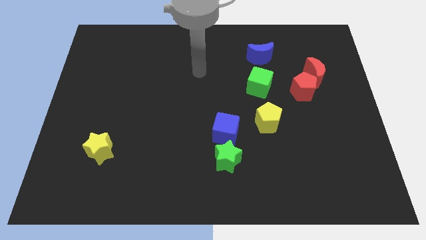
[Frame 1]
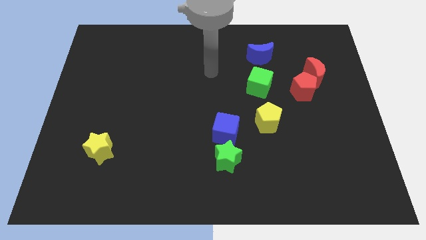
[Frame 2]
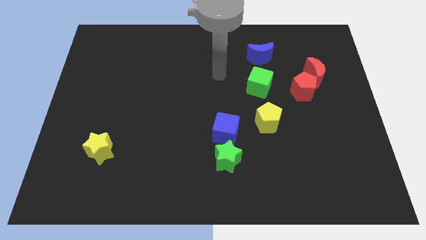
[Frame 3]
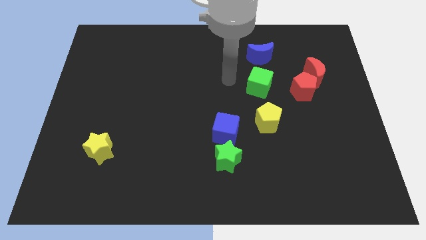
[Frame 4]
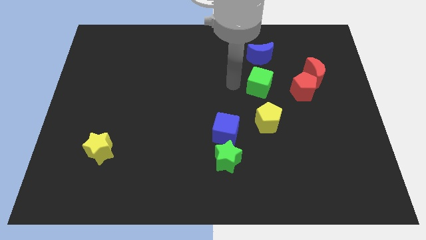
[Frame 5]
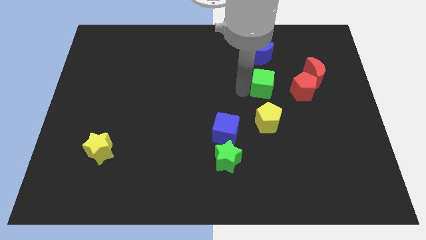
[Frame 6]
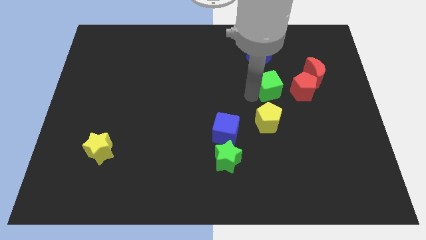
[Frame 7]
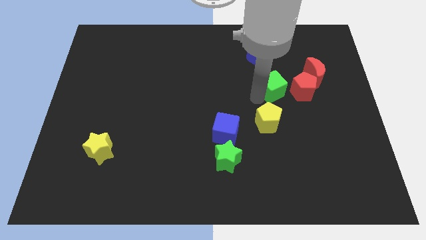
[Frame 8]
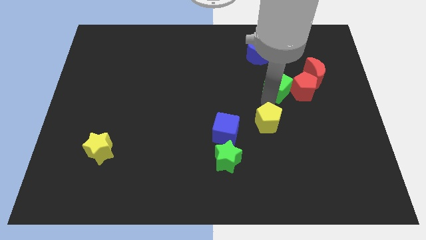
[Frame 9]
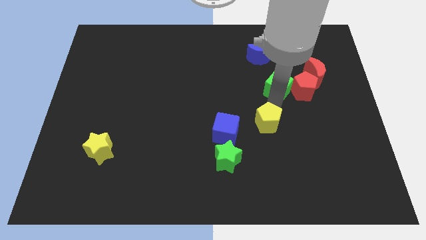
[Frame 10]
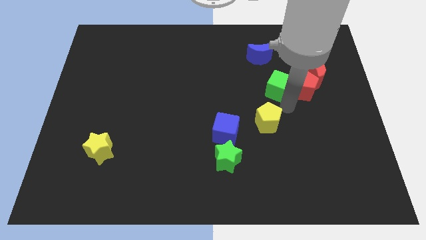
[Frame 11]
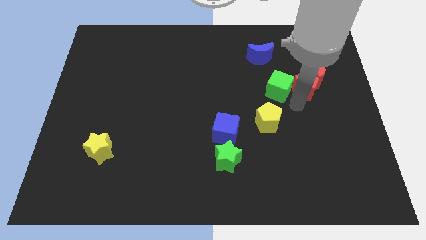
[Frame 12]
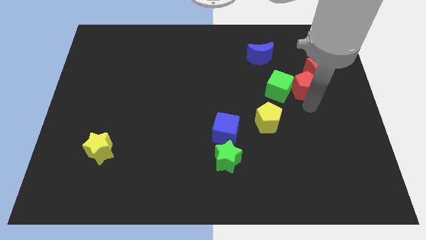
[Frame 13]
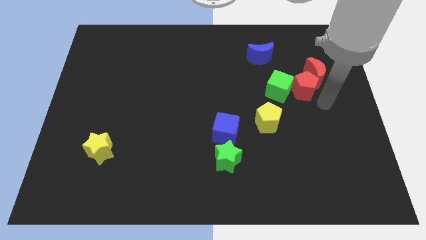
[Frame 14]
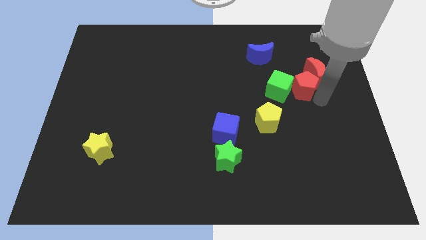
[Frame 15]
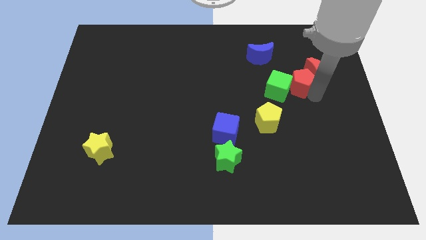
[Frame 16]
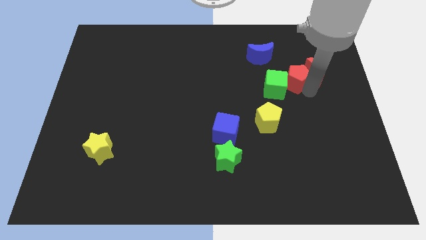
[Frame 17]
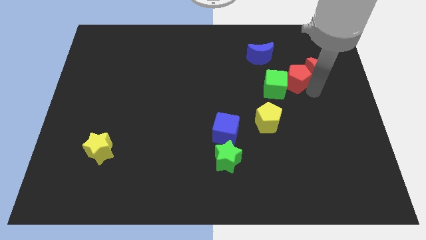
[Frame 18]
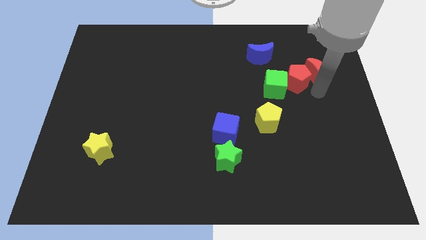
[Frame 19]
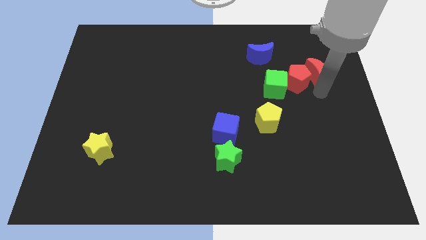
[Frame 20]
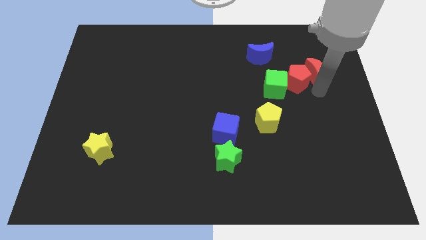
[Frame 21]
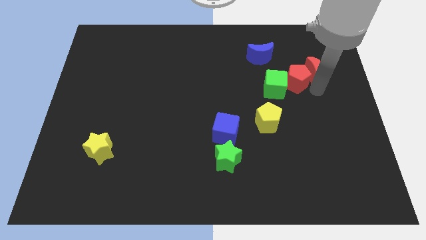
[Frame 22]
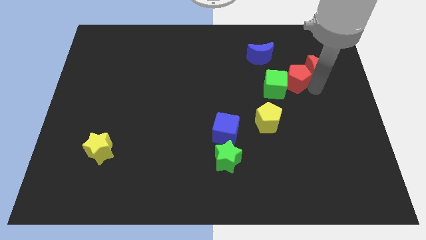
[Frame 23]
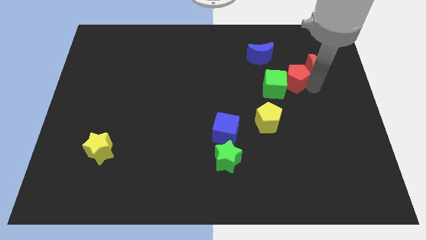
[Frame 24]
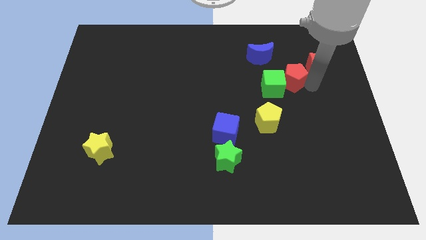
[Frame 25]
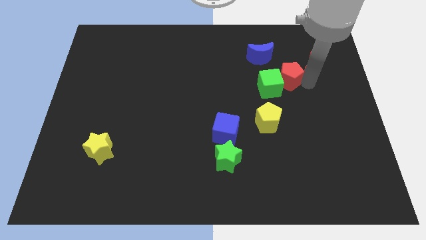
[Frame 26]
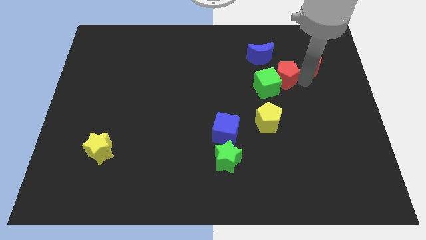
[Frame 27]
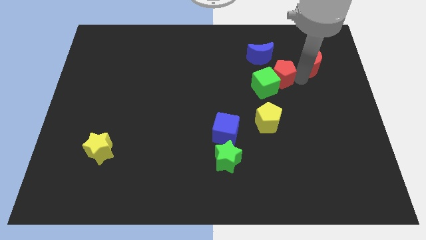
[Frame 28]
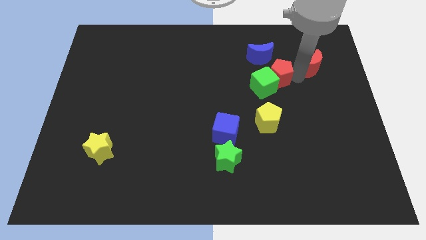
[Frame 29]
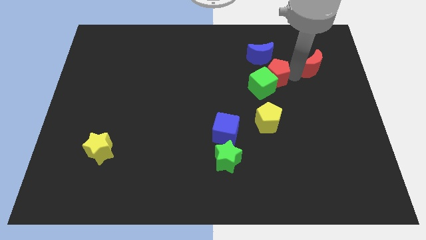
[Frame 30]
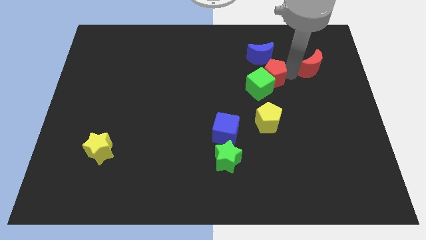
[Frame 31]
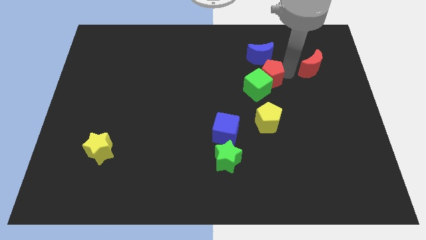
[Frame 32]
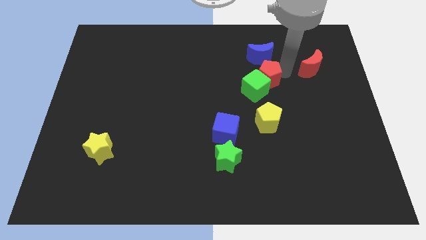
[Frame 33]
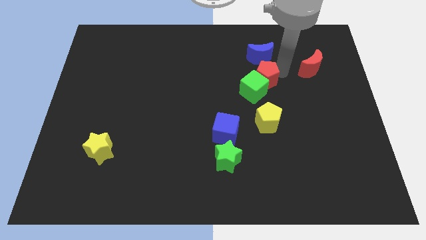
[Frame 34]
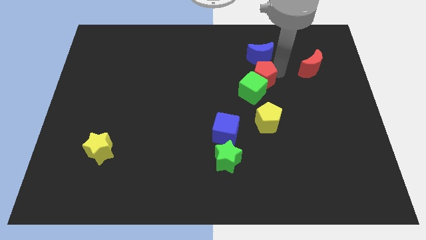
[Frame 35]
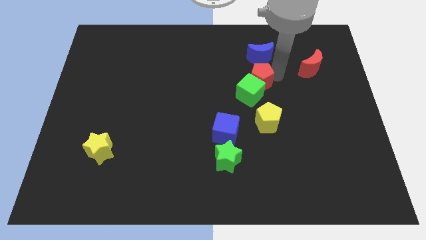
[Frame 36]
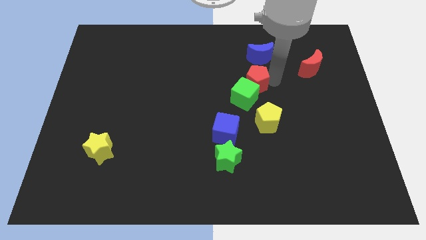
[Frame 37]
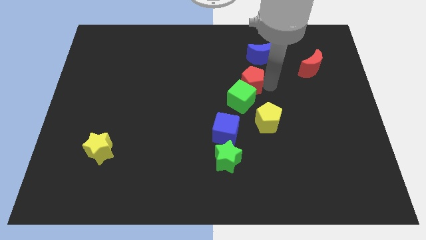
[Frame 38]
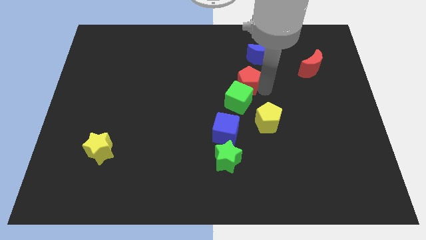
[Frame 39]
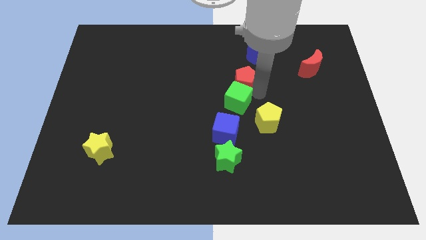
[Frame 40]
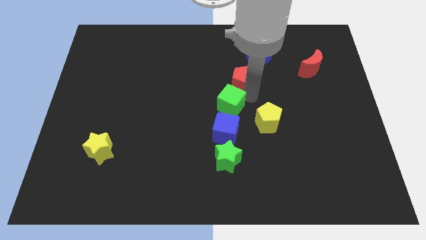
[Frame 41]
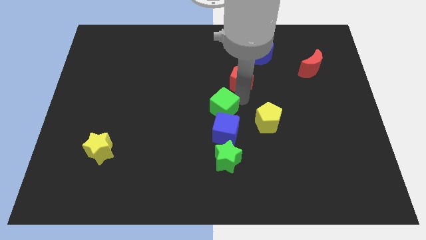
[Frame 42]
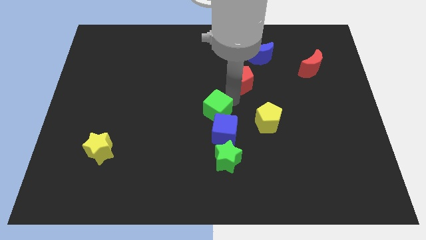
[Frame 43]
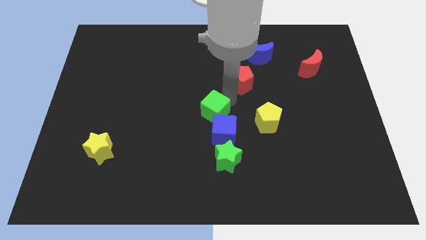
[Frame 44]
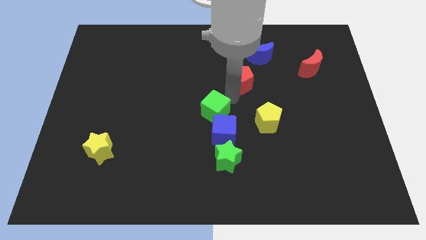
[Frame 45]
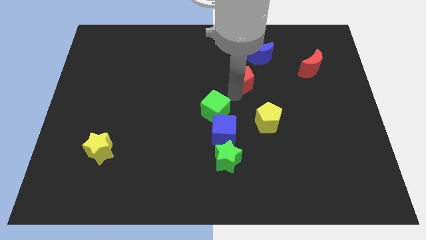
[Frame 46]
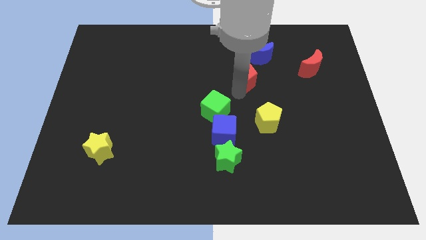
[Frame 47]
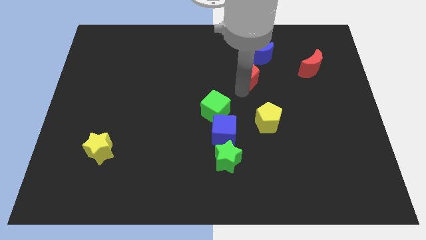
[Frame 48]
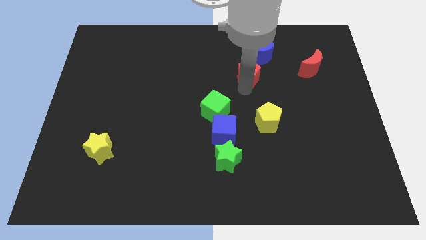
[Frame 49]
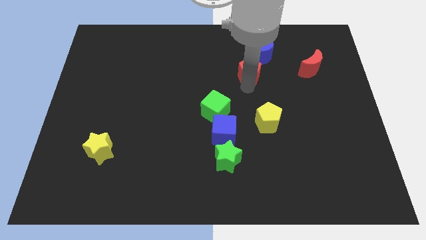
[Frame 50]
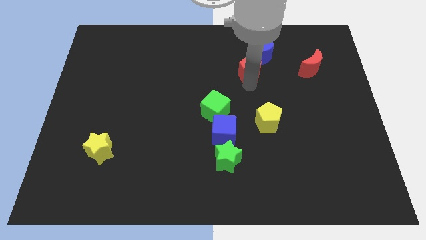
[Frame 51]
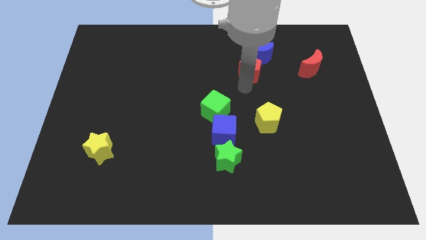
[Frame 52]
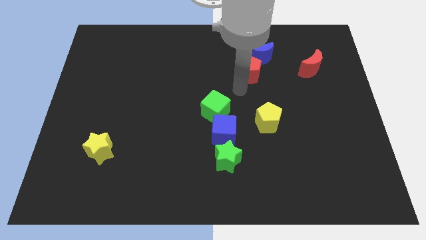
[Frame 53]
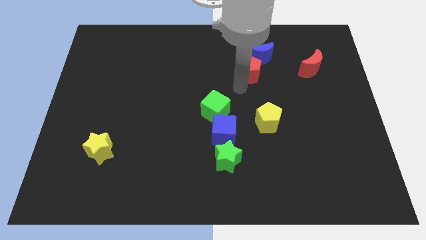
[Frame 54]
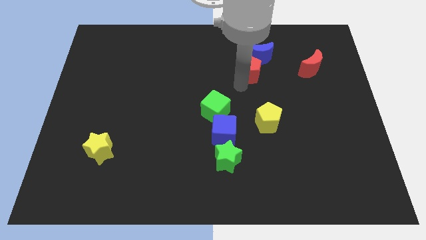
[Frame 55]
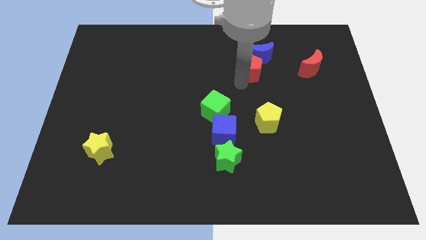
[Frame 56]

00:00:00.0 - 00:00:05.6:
push the red pentagon next to the blue moon

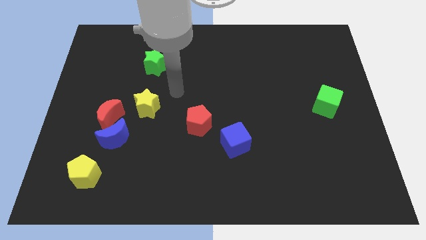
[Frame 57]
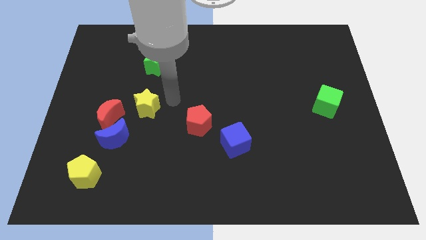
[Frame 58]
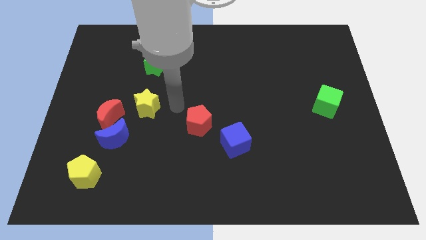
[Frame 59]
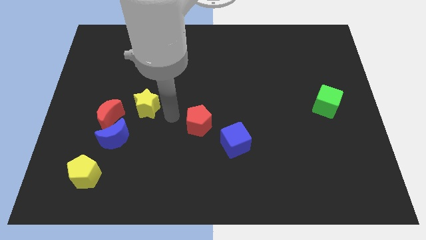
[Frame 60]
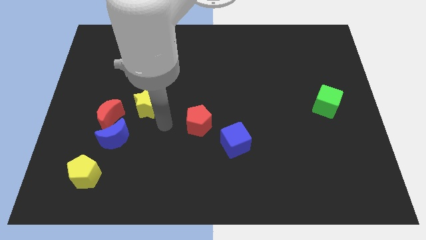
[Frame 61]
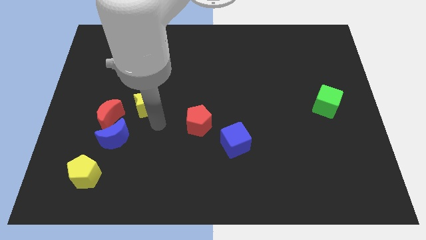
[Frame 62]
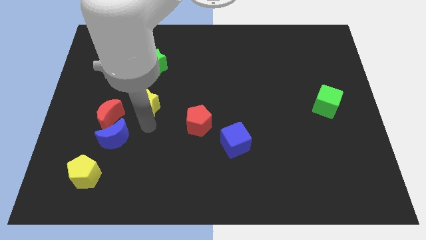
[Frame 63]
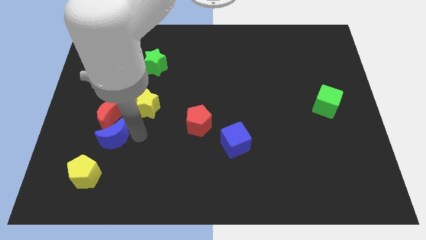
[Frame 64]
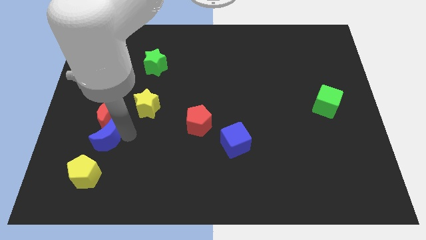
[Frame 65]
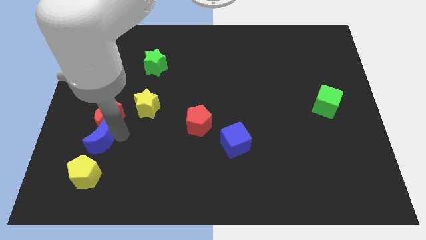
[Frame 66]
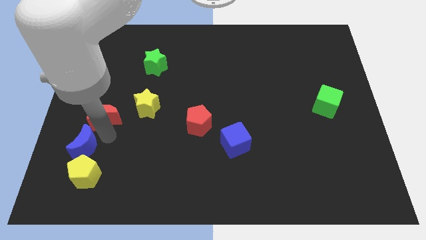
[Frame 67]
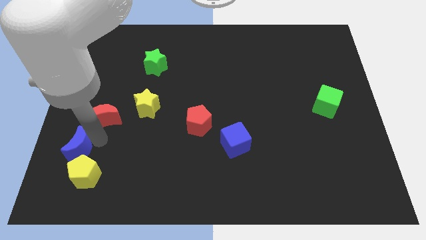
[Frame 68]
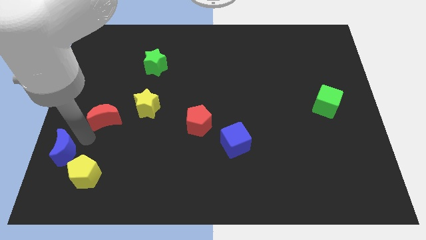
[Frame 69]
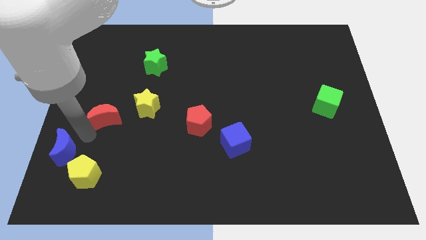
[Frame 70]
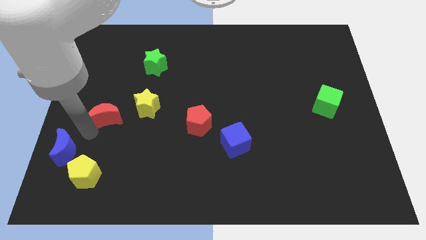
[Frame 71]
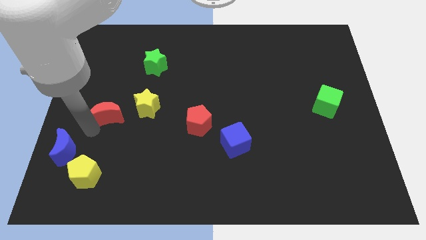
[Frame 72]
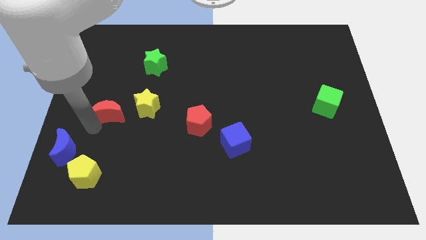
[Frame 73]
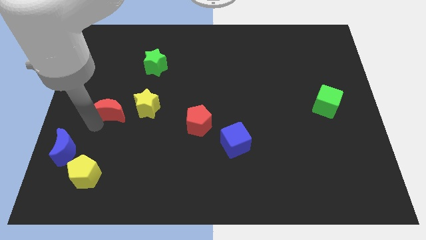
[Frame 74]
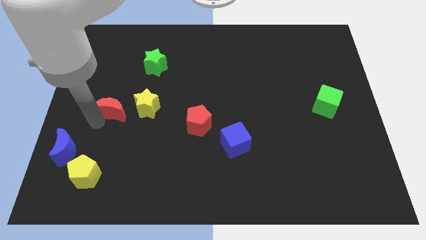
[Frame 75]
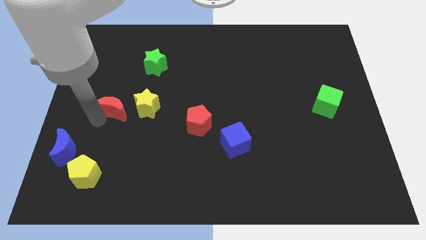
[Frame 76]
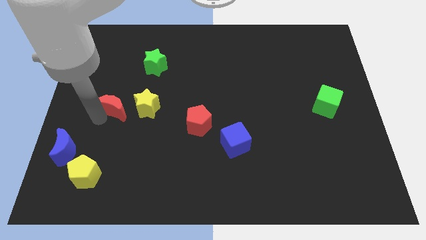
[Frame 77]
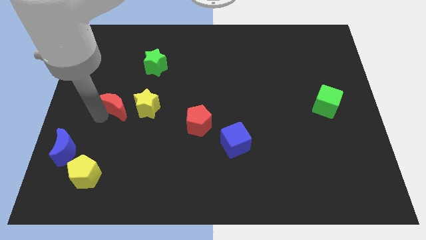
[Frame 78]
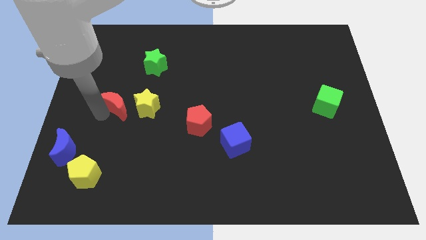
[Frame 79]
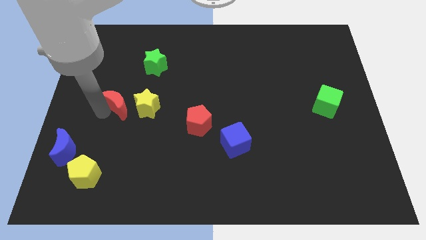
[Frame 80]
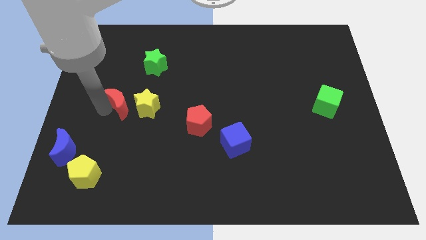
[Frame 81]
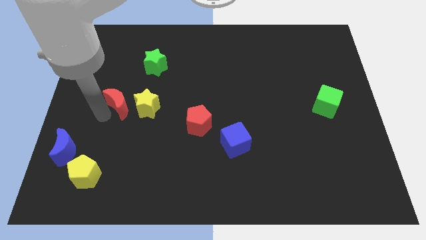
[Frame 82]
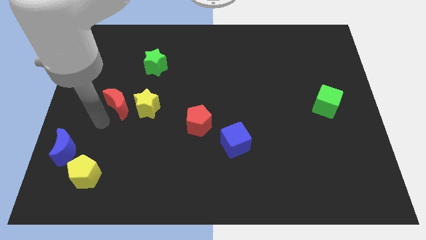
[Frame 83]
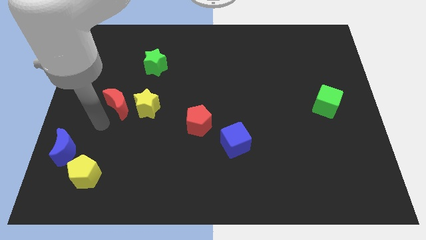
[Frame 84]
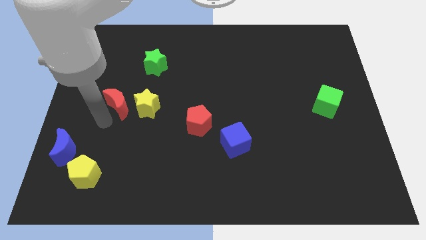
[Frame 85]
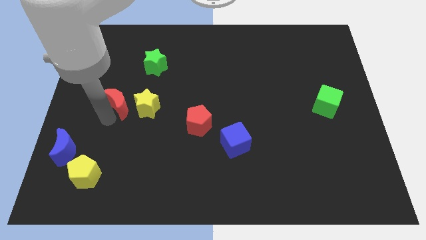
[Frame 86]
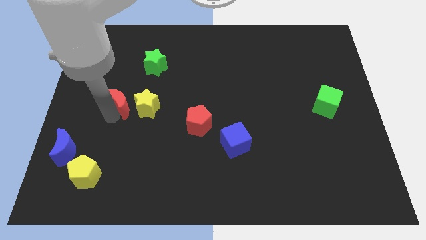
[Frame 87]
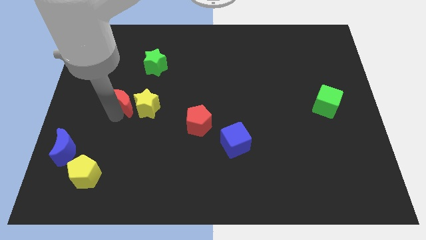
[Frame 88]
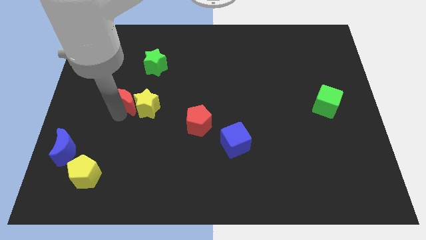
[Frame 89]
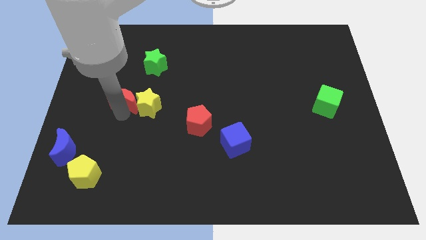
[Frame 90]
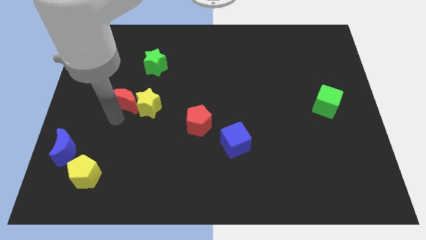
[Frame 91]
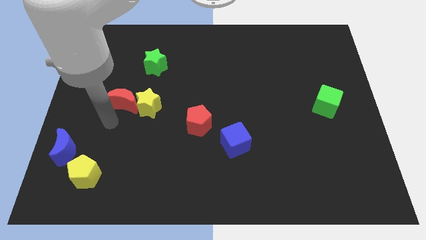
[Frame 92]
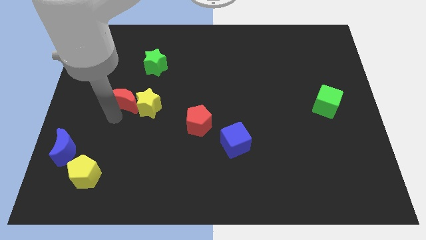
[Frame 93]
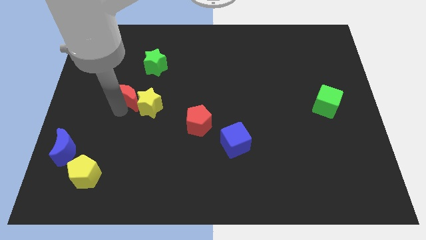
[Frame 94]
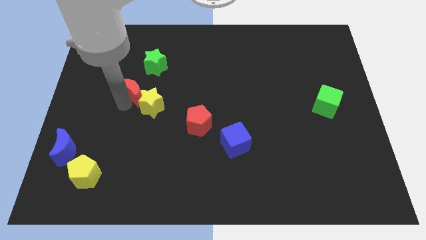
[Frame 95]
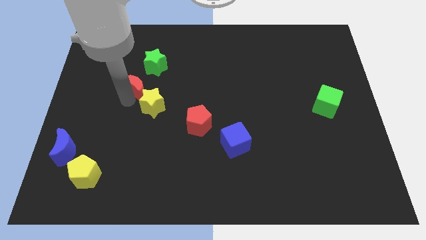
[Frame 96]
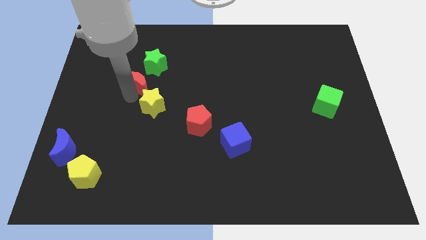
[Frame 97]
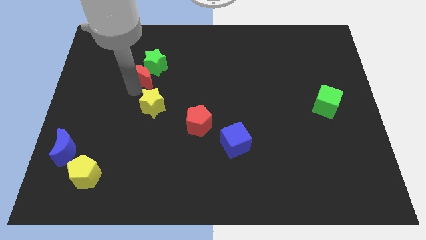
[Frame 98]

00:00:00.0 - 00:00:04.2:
move the red moon towards the green star
